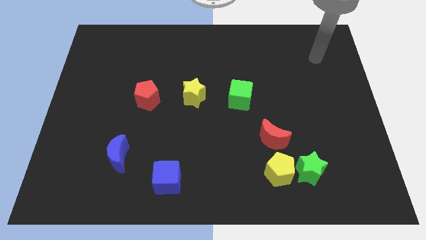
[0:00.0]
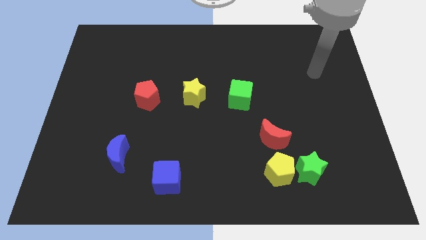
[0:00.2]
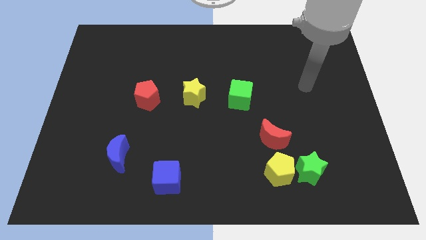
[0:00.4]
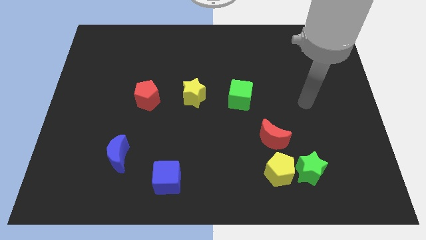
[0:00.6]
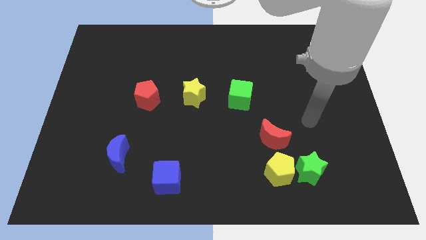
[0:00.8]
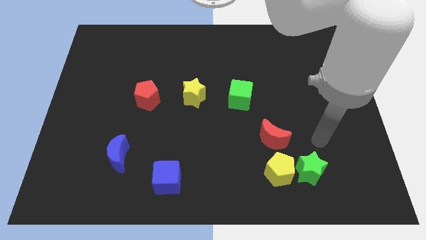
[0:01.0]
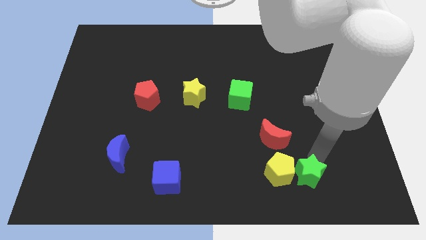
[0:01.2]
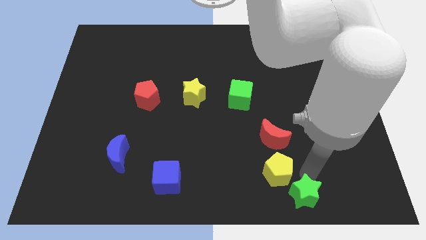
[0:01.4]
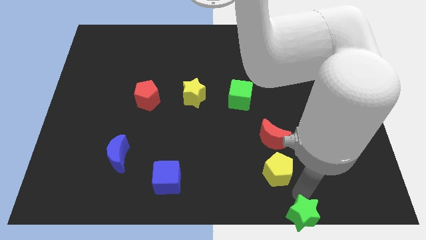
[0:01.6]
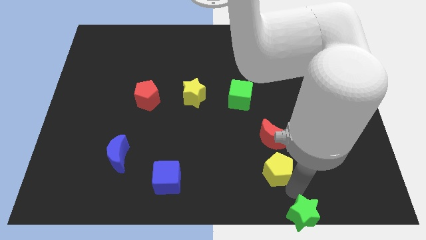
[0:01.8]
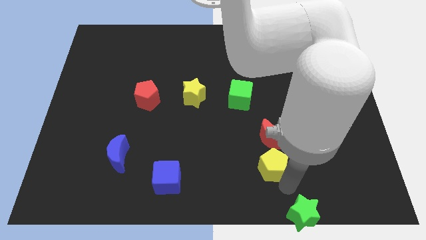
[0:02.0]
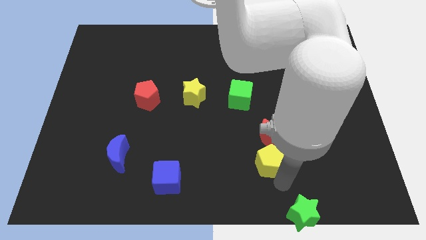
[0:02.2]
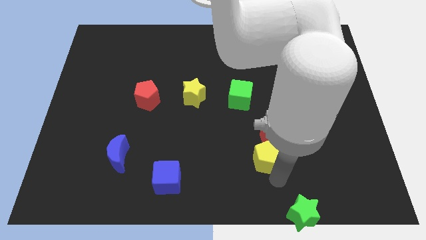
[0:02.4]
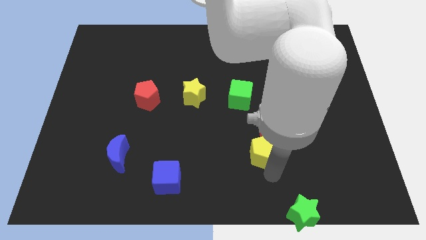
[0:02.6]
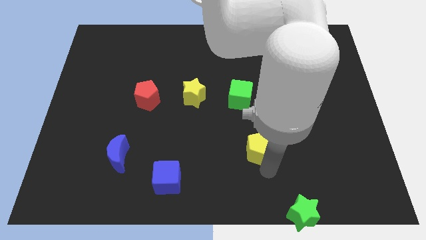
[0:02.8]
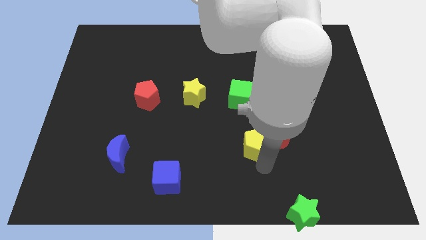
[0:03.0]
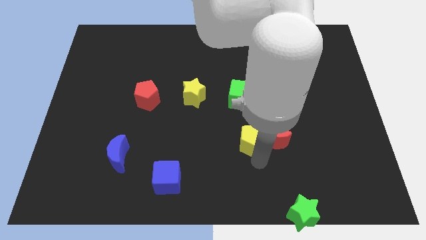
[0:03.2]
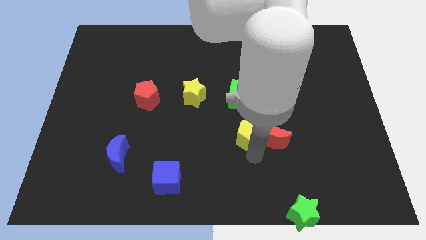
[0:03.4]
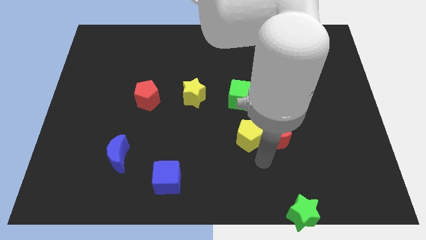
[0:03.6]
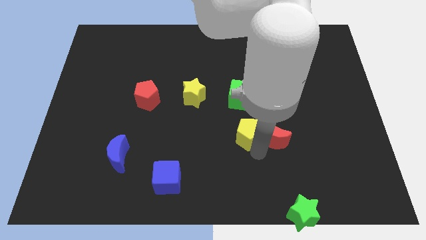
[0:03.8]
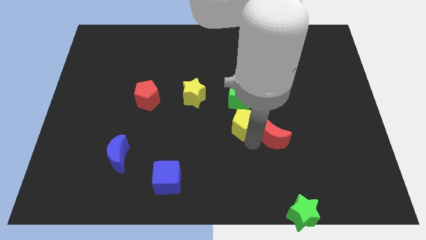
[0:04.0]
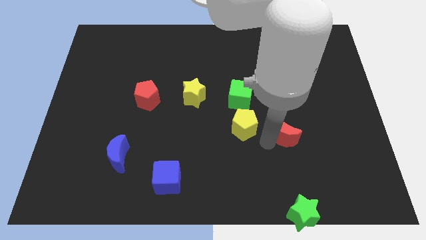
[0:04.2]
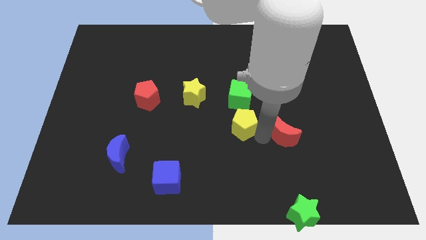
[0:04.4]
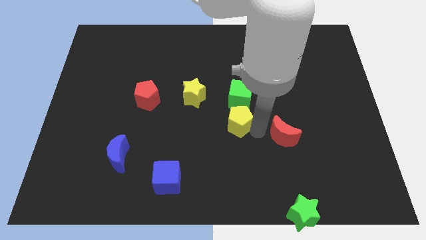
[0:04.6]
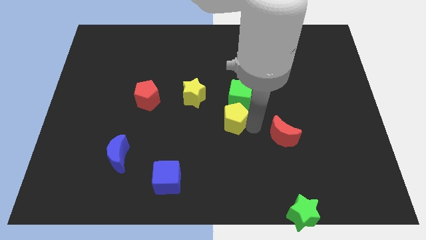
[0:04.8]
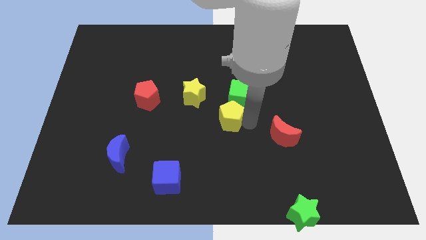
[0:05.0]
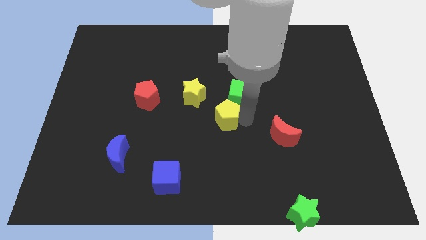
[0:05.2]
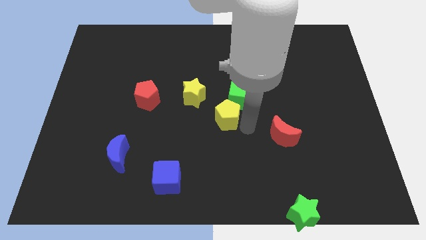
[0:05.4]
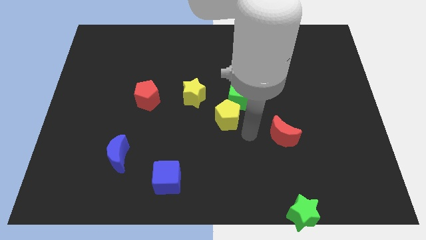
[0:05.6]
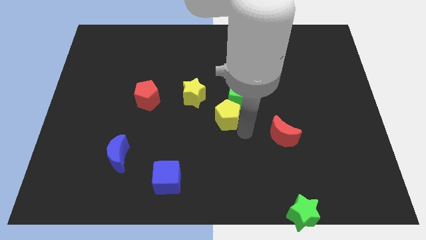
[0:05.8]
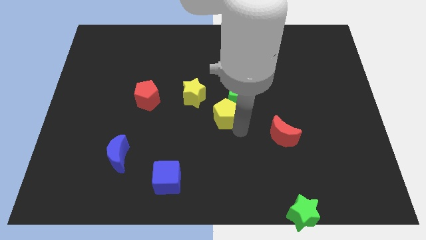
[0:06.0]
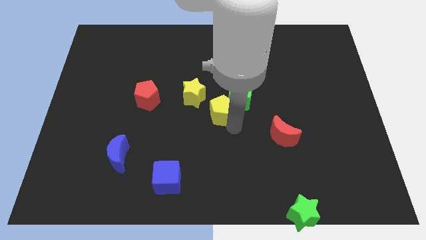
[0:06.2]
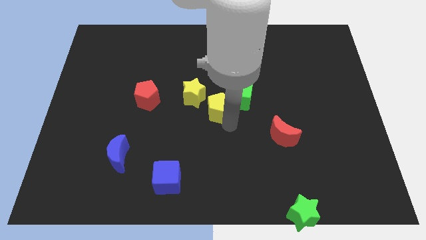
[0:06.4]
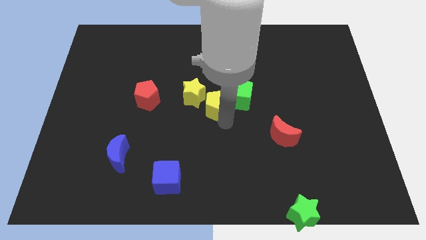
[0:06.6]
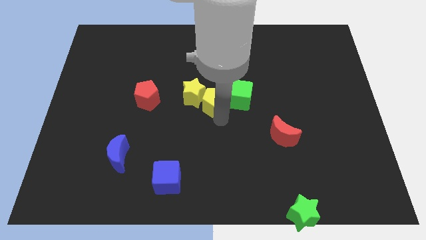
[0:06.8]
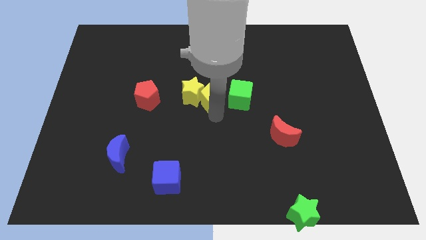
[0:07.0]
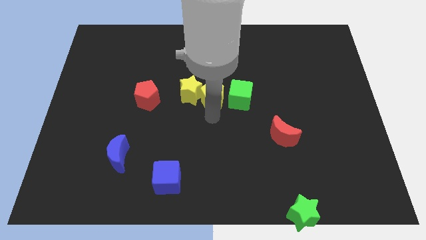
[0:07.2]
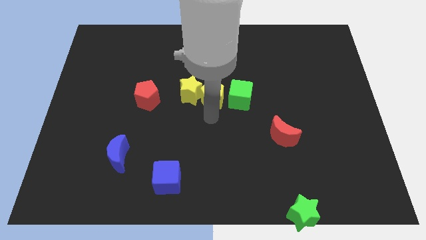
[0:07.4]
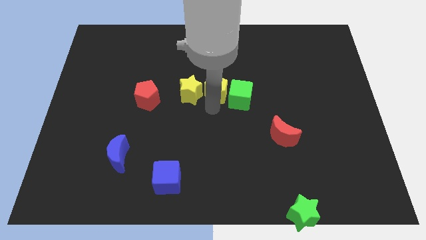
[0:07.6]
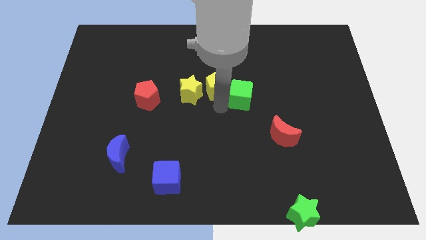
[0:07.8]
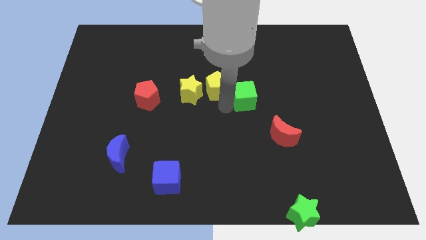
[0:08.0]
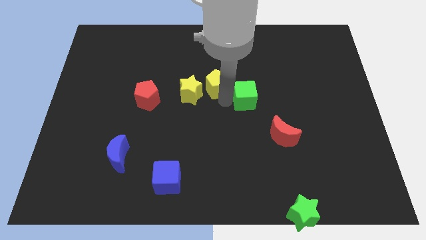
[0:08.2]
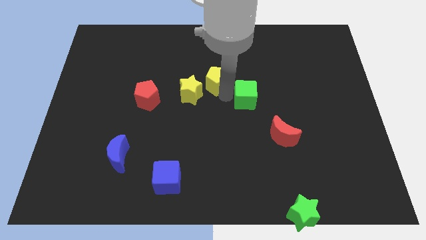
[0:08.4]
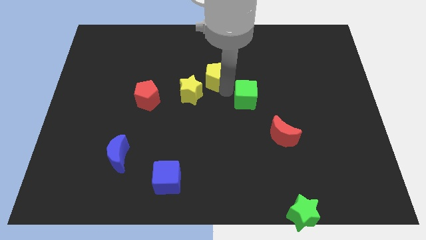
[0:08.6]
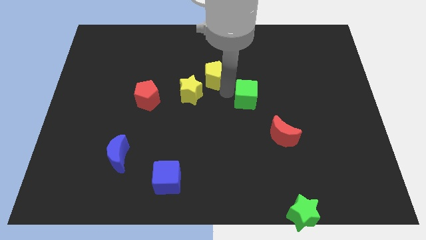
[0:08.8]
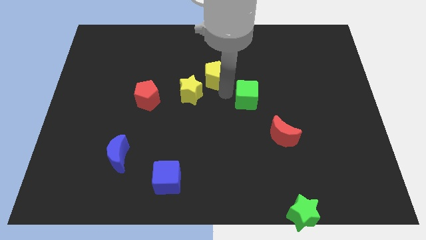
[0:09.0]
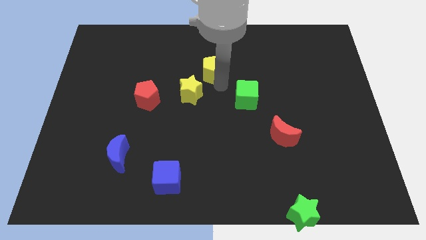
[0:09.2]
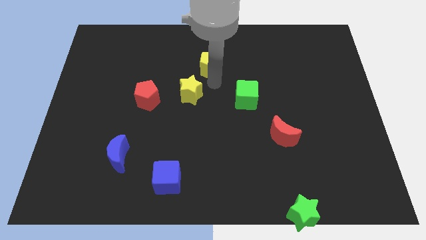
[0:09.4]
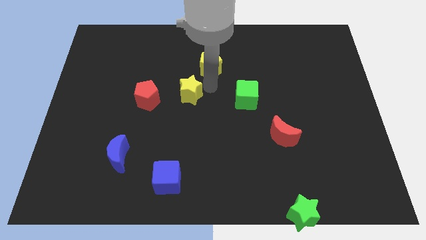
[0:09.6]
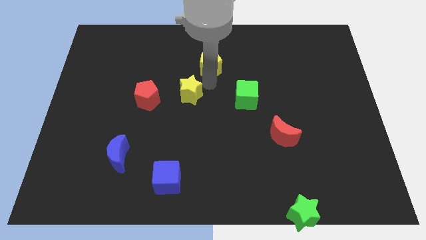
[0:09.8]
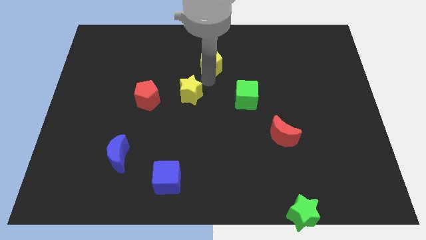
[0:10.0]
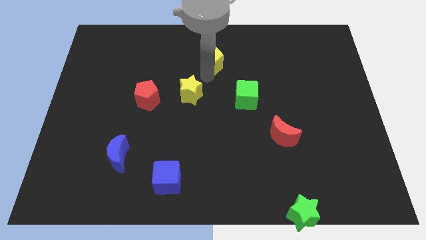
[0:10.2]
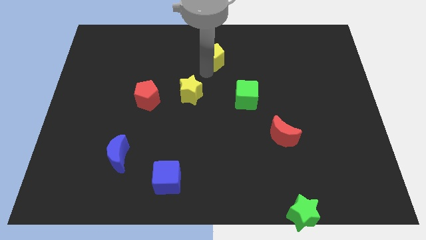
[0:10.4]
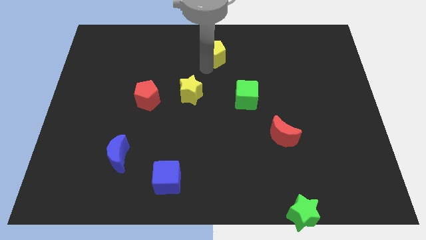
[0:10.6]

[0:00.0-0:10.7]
push the yellow pentagon to the top side

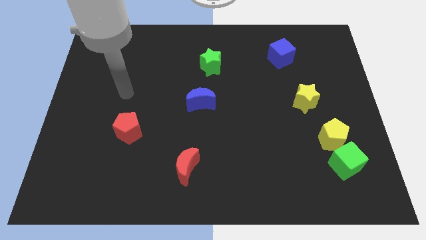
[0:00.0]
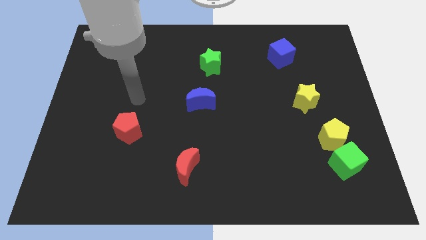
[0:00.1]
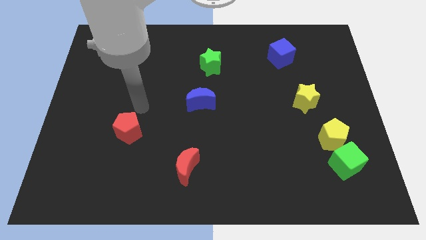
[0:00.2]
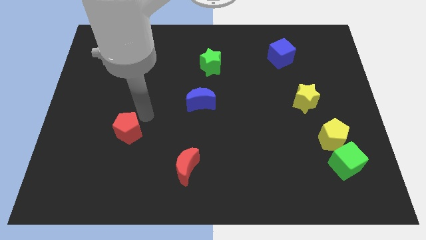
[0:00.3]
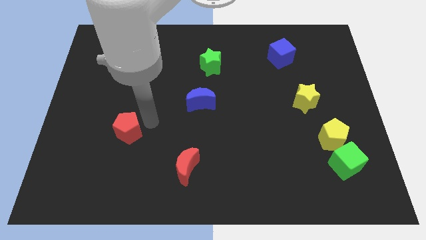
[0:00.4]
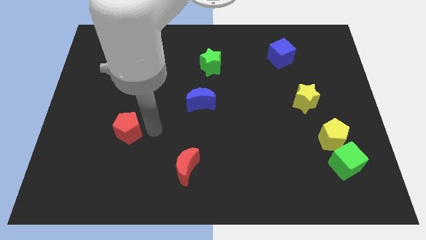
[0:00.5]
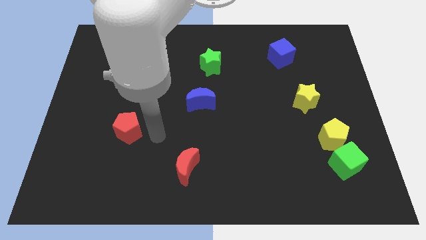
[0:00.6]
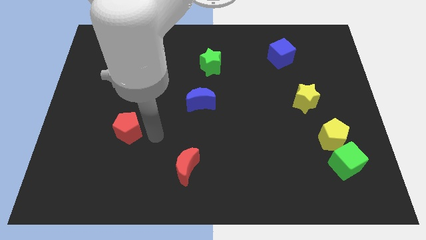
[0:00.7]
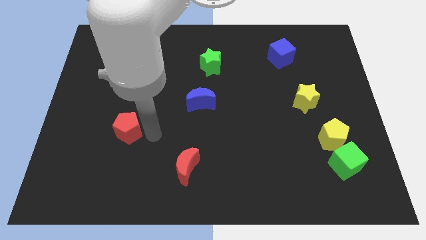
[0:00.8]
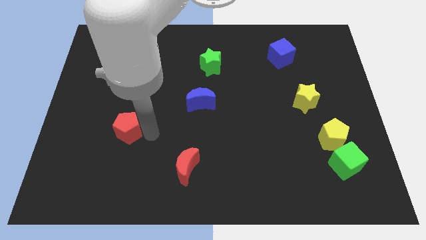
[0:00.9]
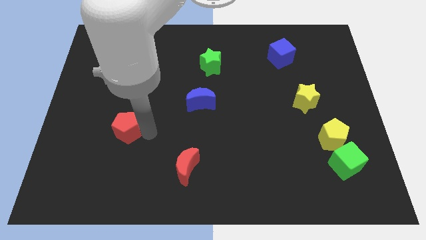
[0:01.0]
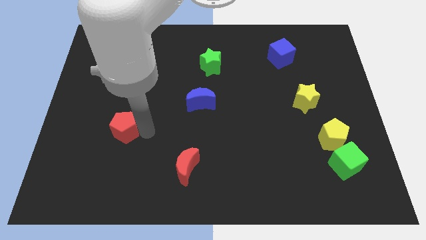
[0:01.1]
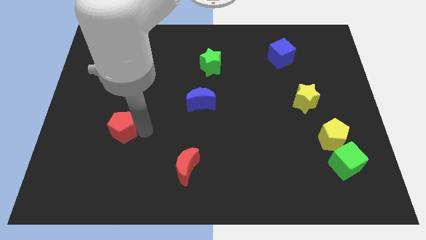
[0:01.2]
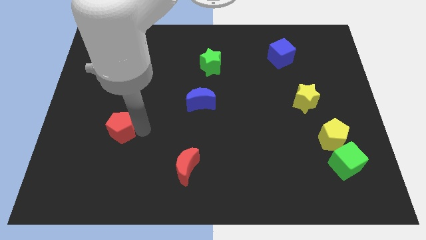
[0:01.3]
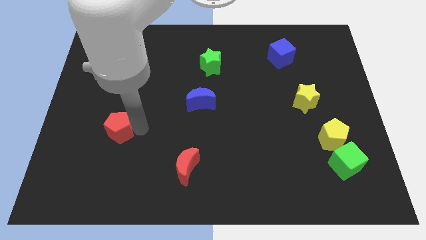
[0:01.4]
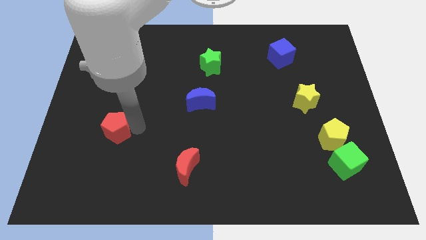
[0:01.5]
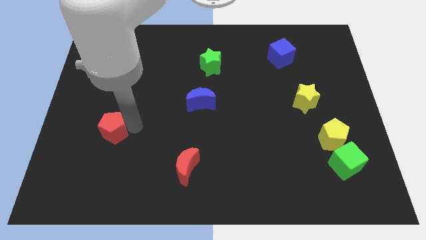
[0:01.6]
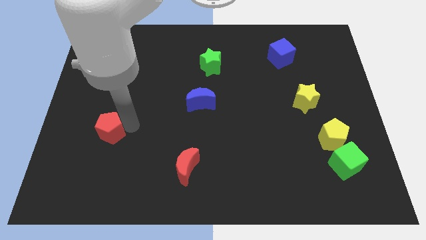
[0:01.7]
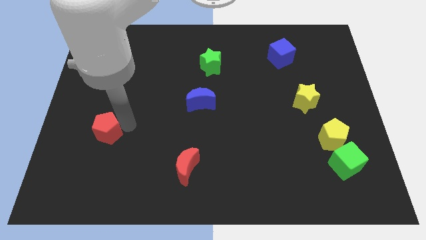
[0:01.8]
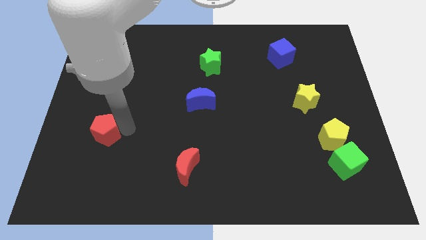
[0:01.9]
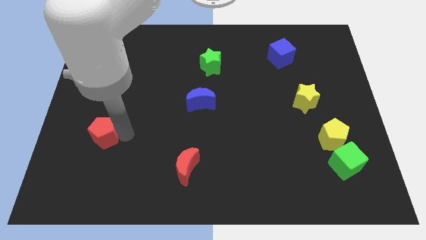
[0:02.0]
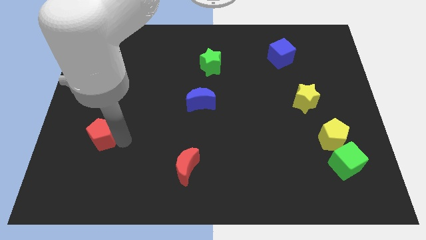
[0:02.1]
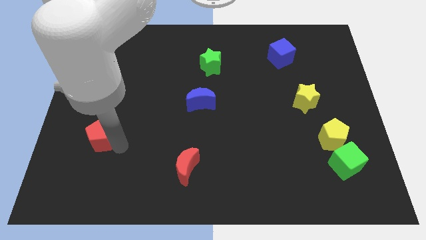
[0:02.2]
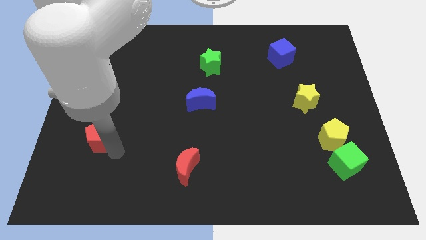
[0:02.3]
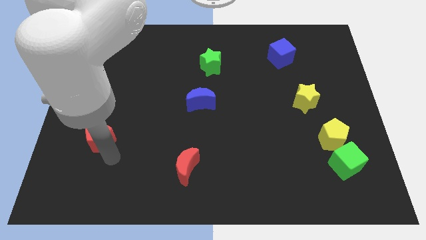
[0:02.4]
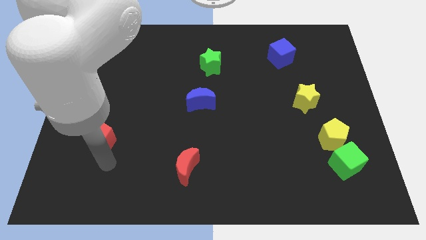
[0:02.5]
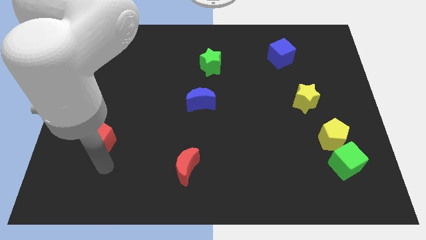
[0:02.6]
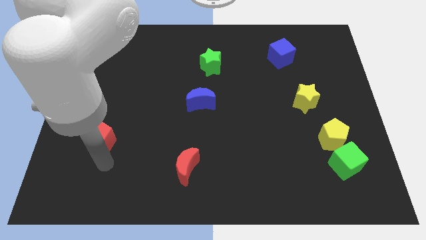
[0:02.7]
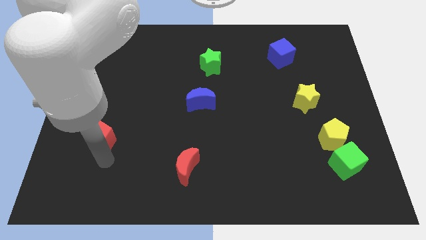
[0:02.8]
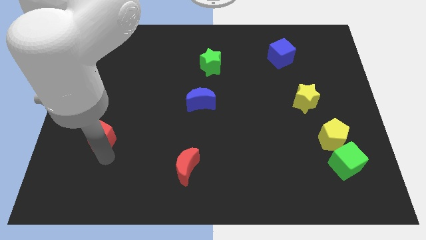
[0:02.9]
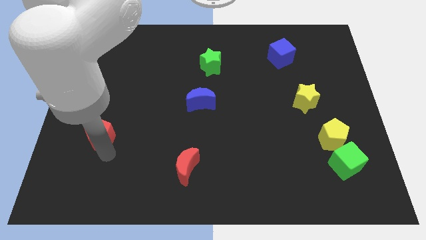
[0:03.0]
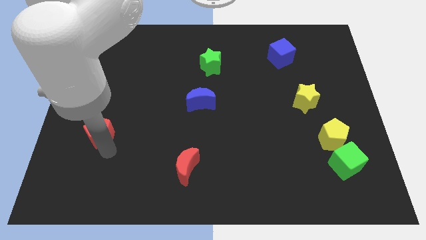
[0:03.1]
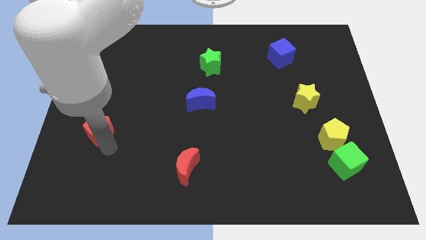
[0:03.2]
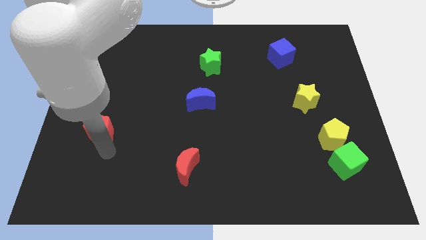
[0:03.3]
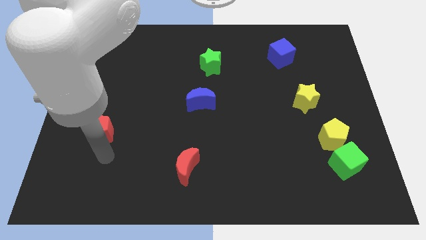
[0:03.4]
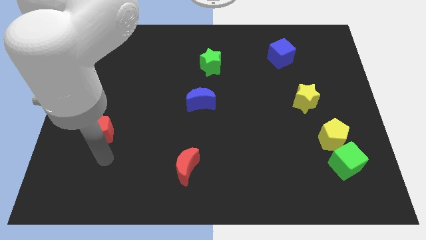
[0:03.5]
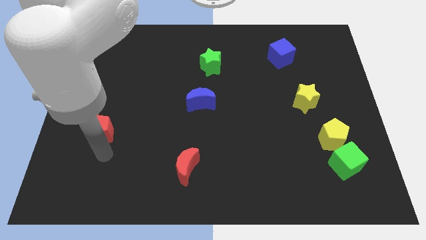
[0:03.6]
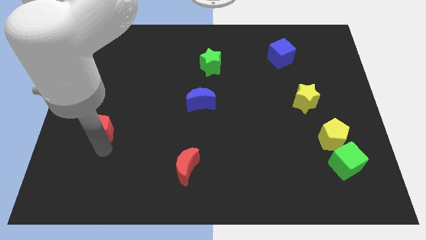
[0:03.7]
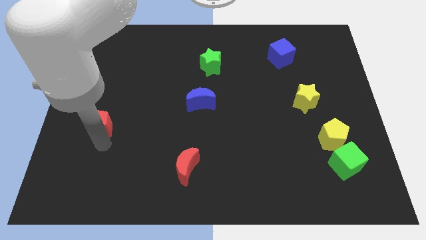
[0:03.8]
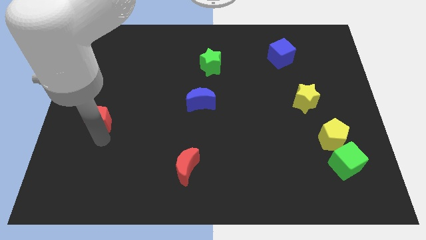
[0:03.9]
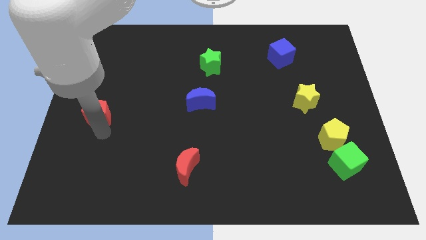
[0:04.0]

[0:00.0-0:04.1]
slide the red pentagon to the left side of the board
